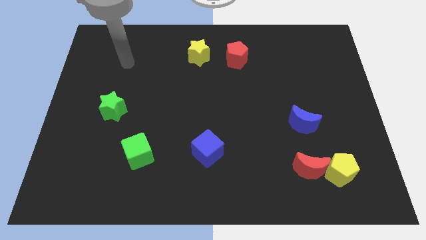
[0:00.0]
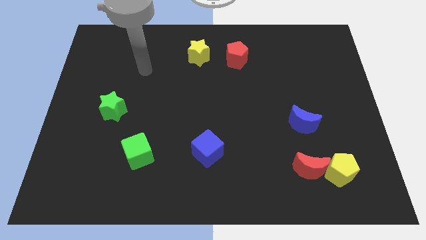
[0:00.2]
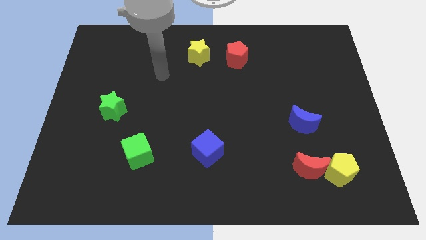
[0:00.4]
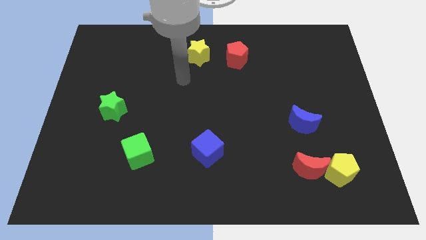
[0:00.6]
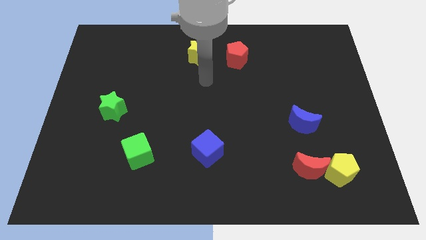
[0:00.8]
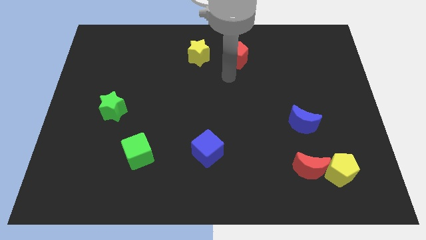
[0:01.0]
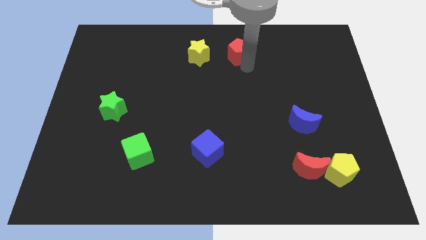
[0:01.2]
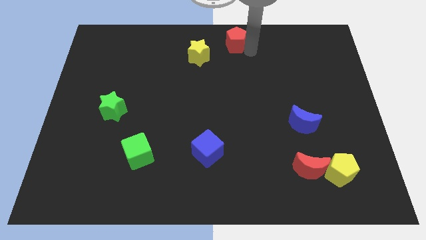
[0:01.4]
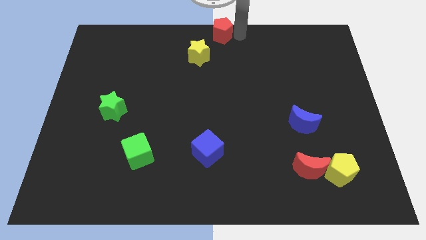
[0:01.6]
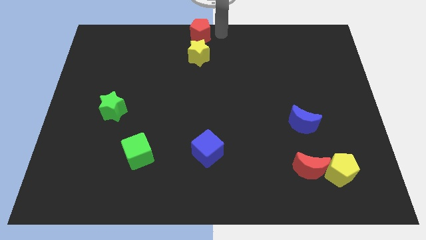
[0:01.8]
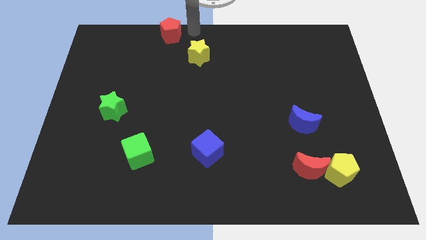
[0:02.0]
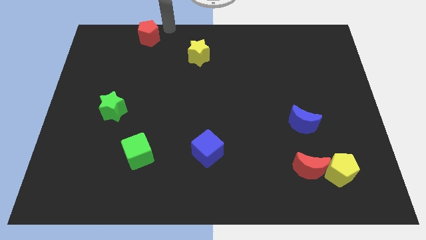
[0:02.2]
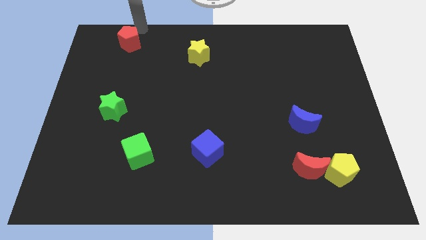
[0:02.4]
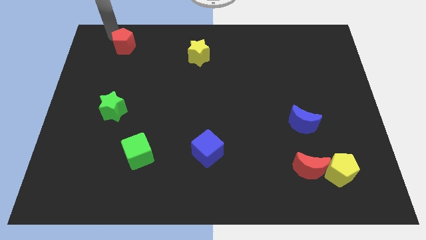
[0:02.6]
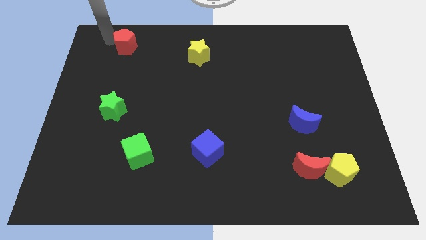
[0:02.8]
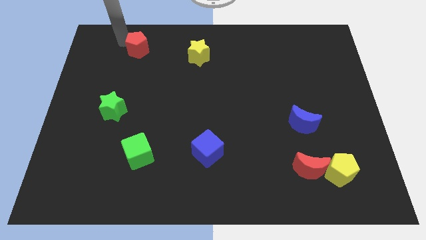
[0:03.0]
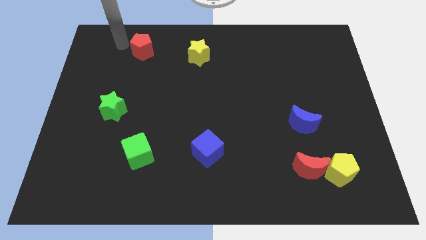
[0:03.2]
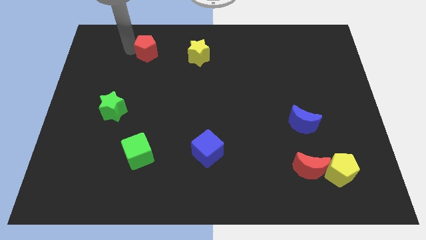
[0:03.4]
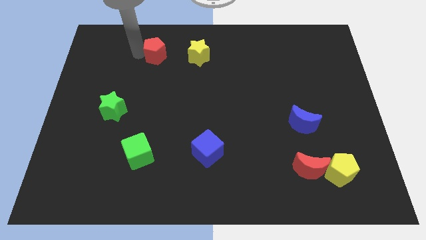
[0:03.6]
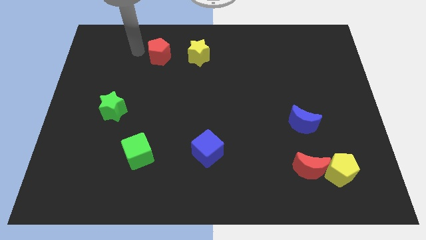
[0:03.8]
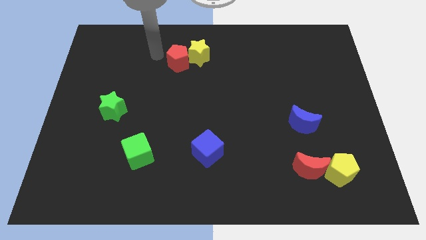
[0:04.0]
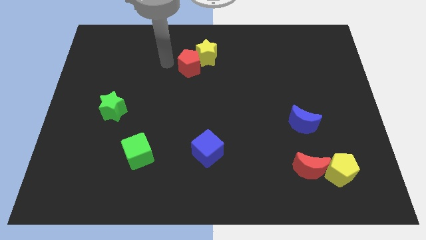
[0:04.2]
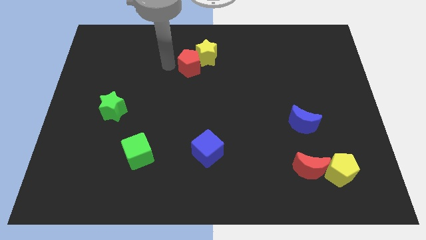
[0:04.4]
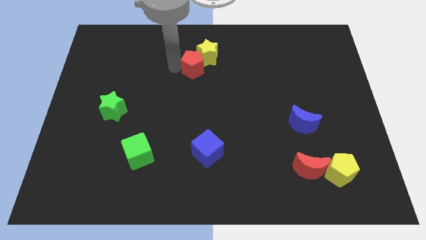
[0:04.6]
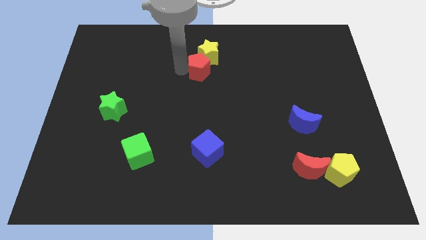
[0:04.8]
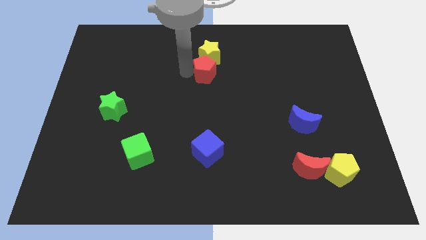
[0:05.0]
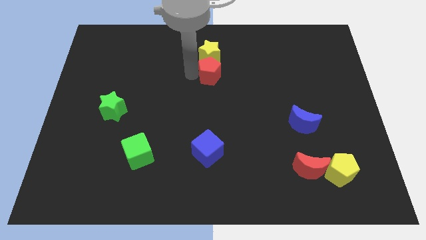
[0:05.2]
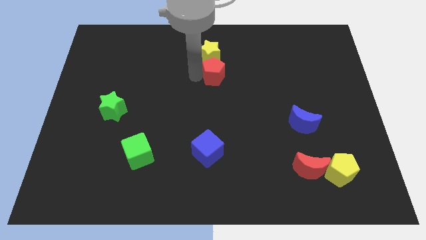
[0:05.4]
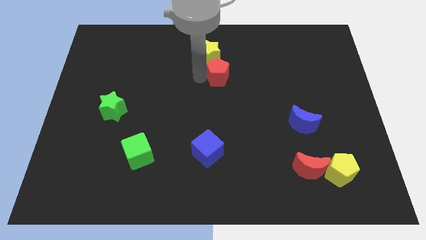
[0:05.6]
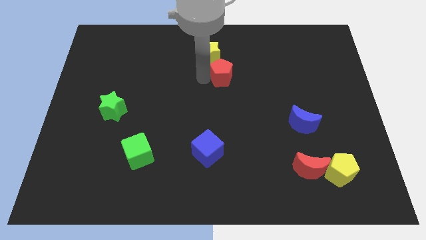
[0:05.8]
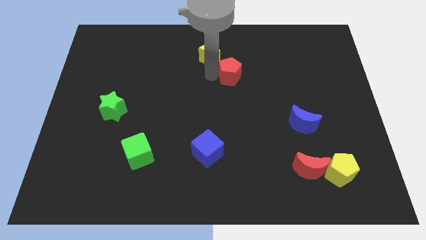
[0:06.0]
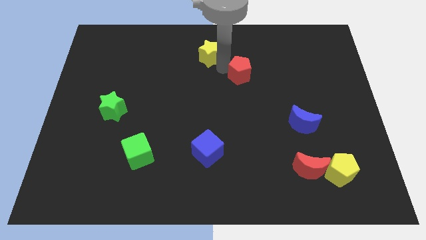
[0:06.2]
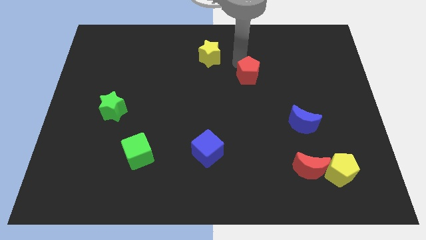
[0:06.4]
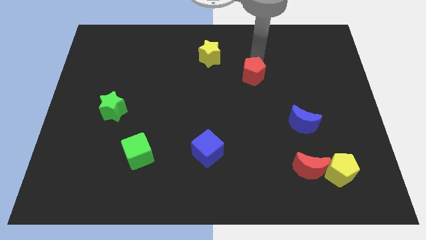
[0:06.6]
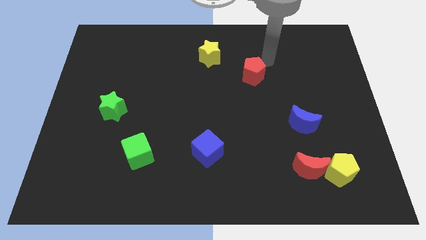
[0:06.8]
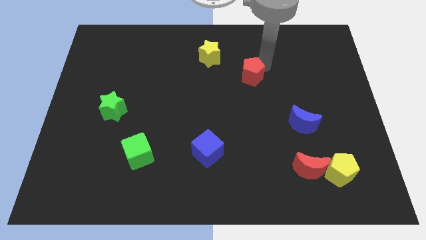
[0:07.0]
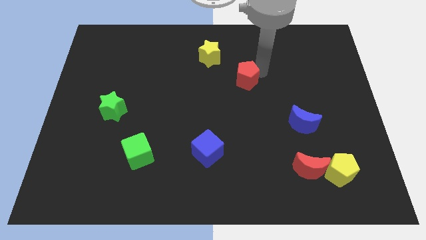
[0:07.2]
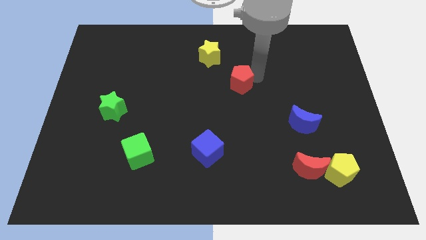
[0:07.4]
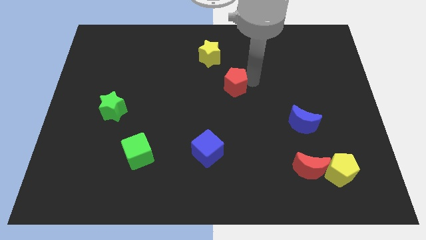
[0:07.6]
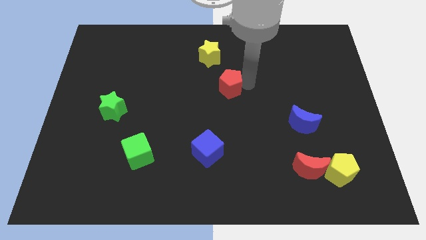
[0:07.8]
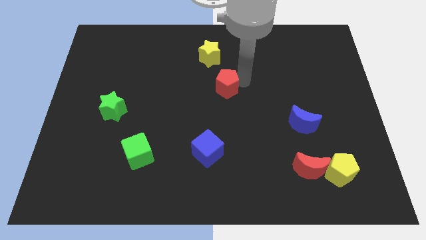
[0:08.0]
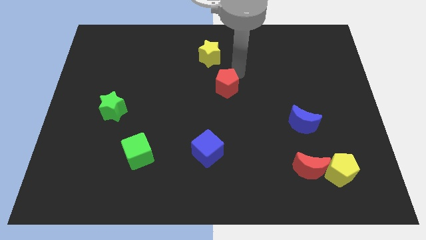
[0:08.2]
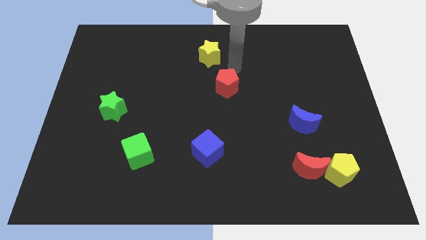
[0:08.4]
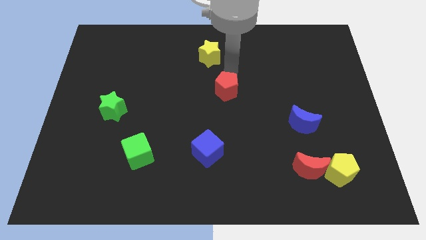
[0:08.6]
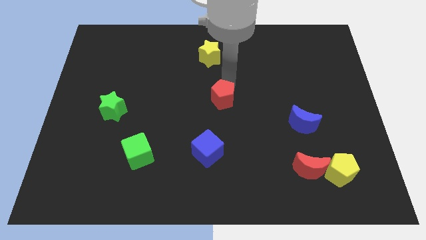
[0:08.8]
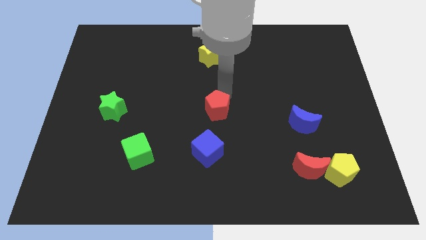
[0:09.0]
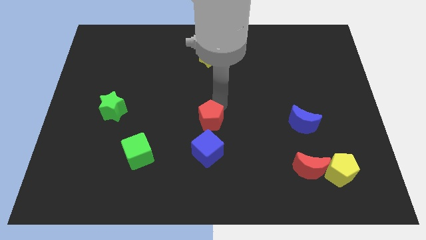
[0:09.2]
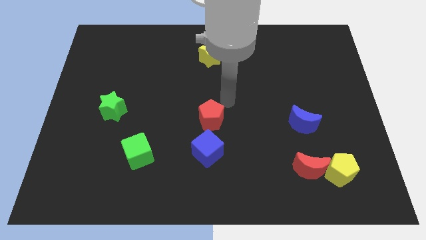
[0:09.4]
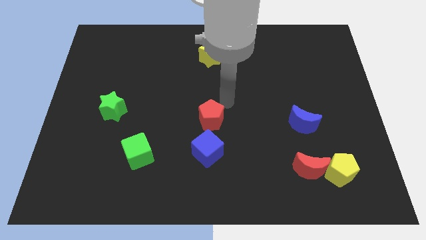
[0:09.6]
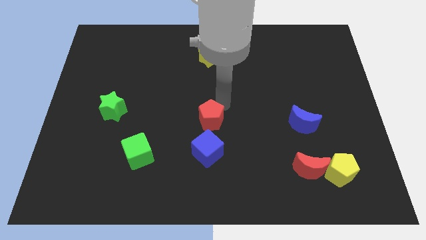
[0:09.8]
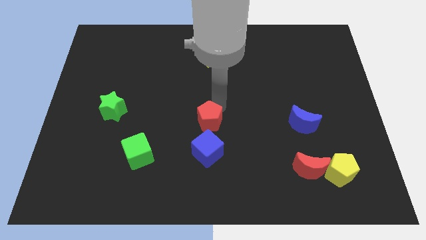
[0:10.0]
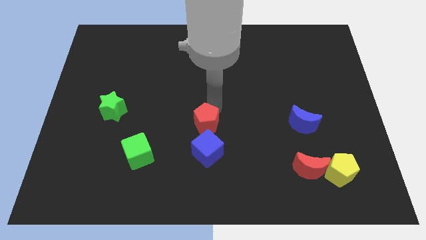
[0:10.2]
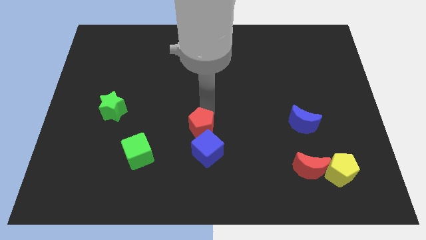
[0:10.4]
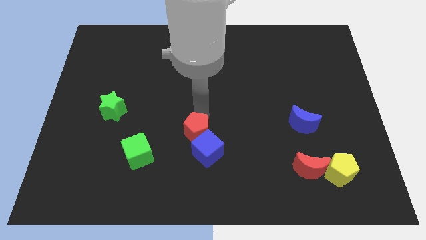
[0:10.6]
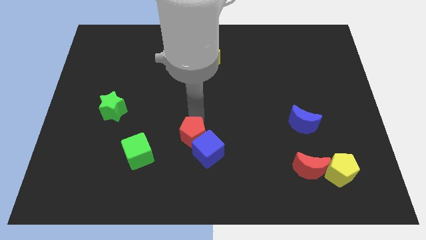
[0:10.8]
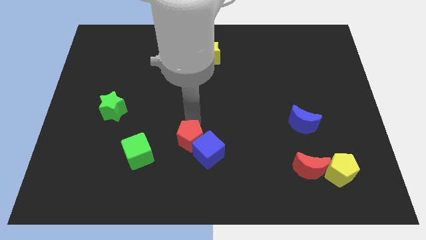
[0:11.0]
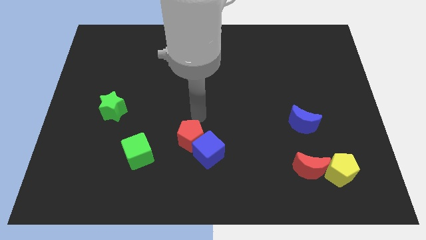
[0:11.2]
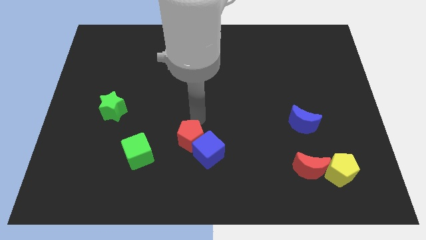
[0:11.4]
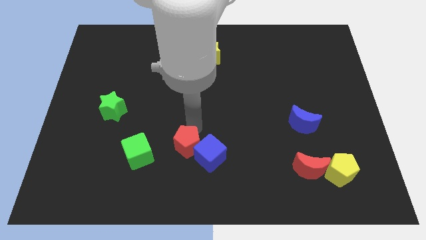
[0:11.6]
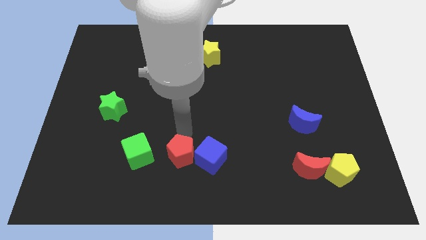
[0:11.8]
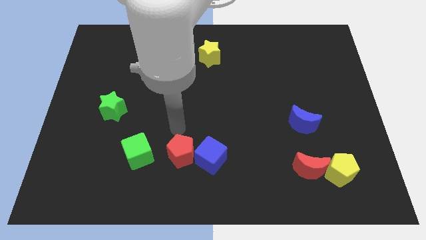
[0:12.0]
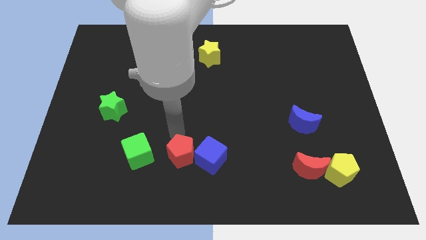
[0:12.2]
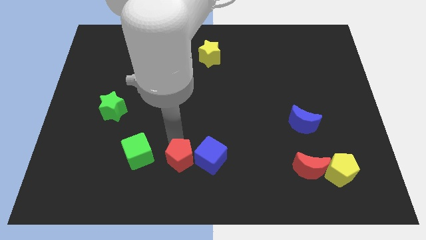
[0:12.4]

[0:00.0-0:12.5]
slide the red pentagon diagonally down and to the left of the blue cube
